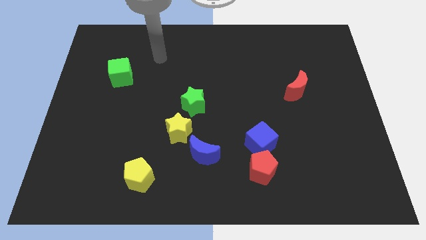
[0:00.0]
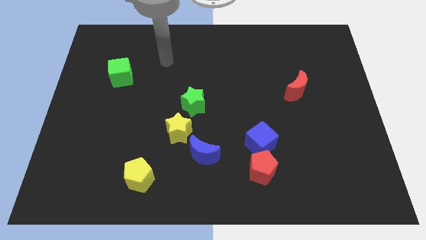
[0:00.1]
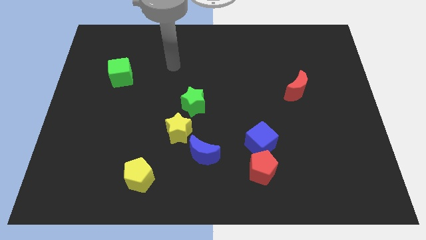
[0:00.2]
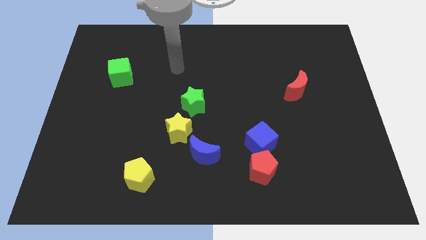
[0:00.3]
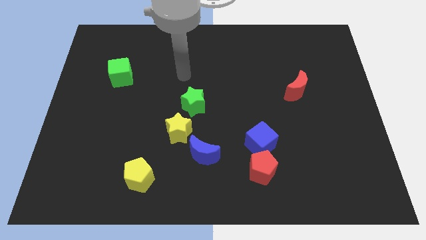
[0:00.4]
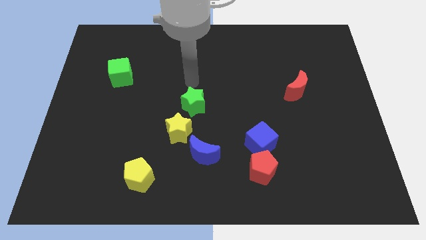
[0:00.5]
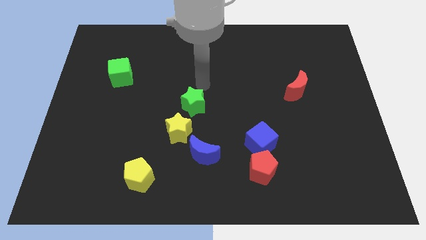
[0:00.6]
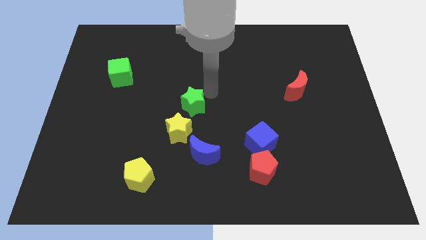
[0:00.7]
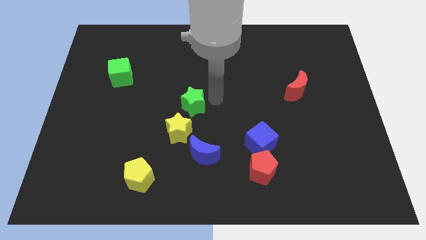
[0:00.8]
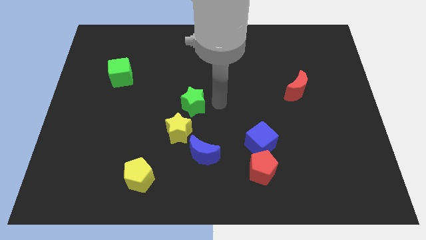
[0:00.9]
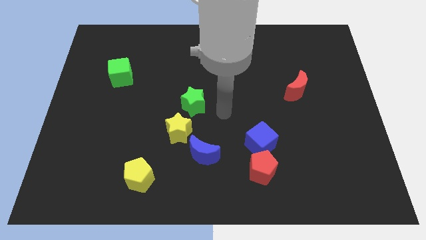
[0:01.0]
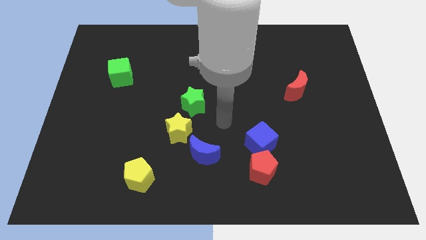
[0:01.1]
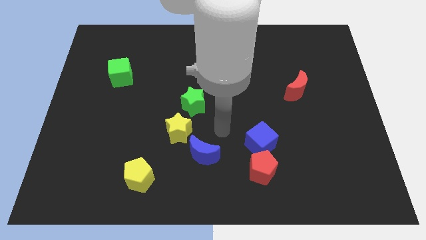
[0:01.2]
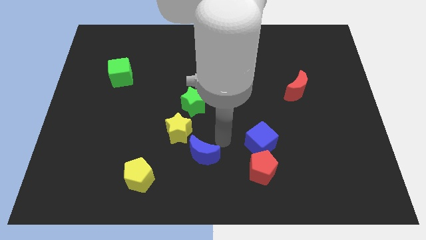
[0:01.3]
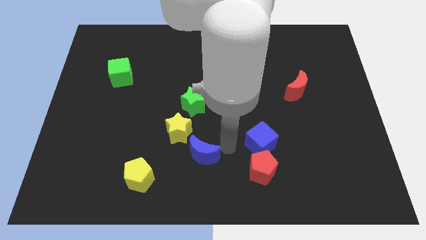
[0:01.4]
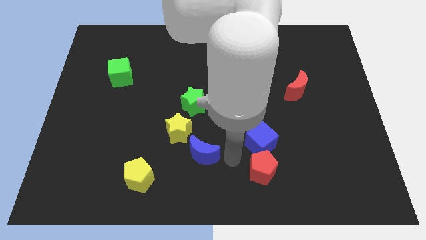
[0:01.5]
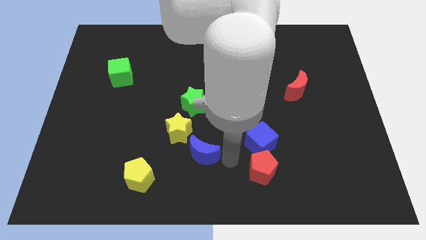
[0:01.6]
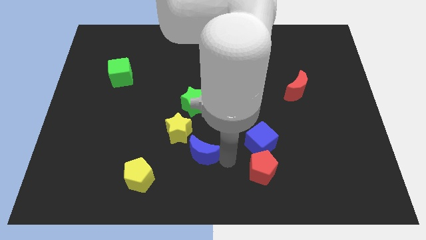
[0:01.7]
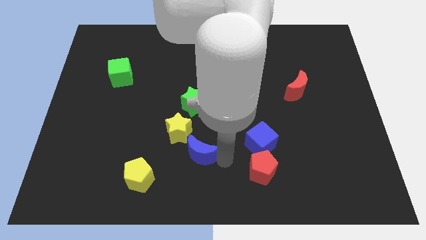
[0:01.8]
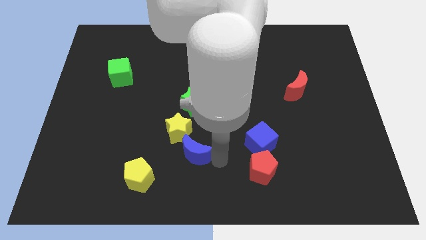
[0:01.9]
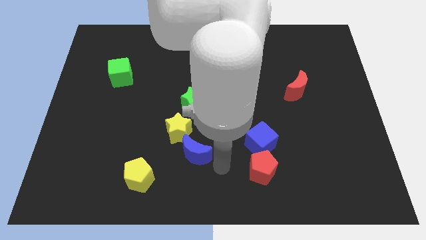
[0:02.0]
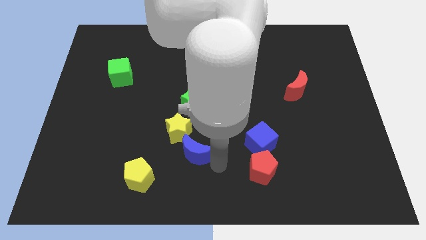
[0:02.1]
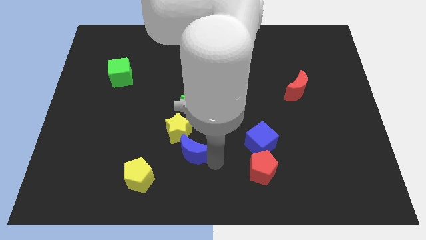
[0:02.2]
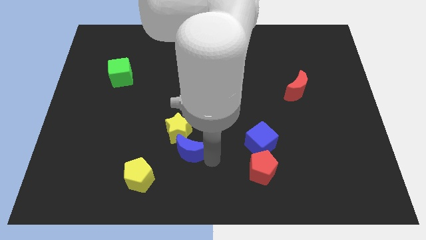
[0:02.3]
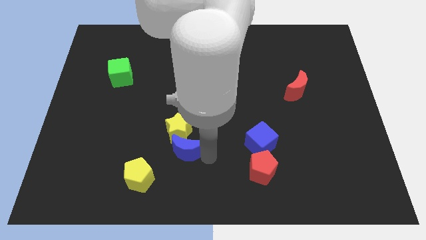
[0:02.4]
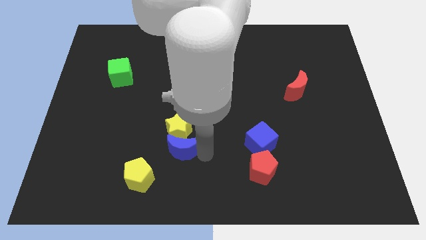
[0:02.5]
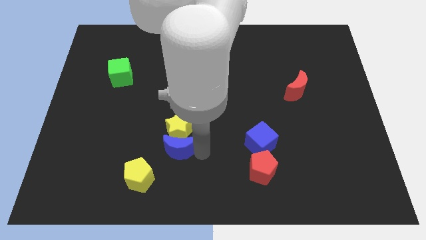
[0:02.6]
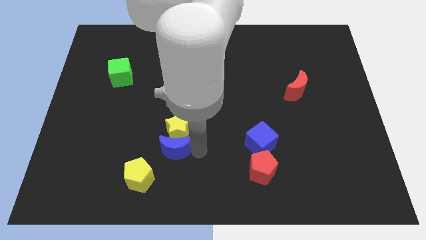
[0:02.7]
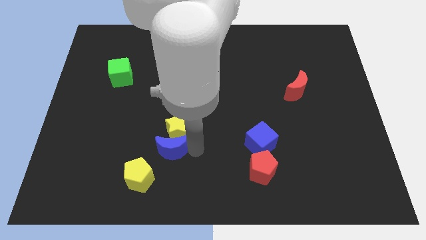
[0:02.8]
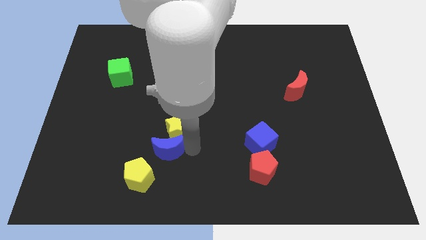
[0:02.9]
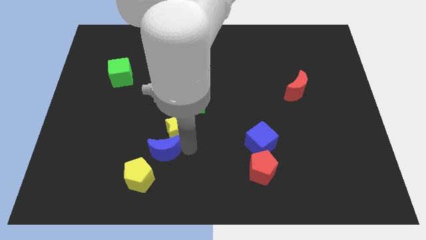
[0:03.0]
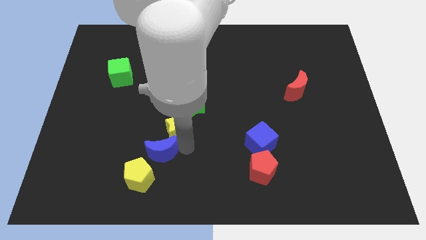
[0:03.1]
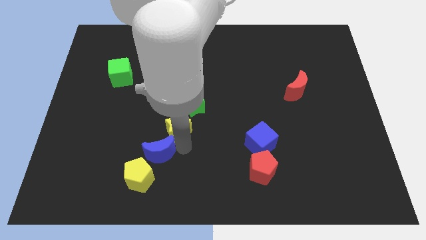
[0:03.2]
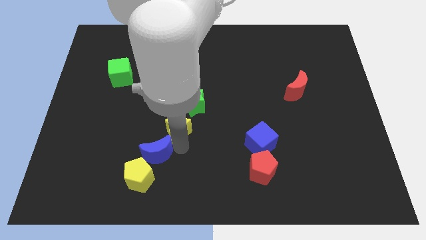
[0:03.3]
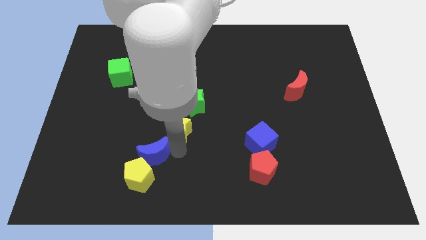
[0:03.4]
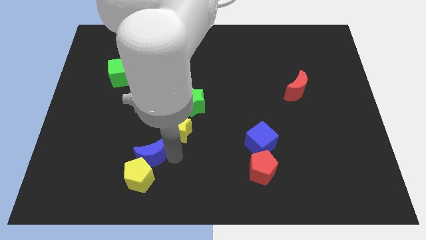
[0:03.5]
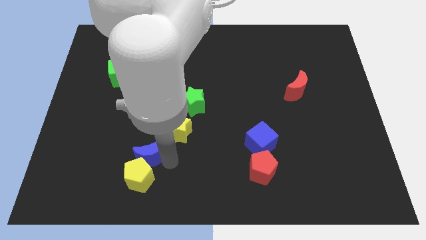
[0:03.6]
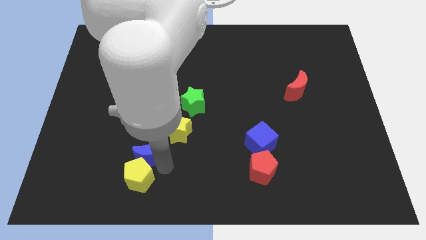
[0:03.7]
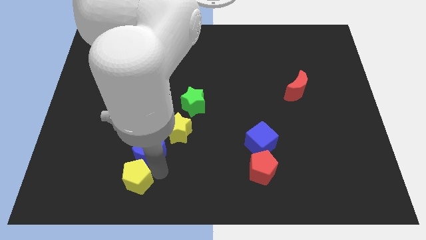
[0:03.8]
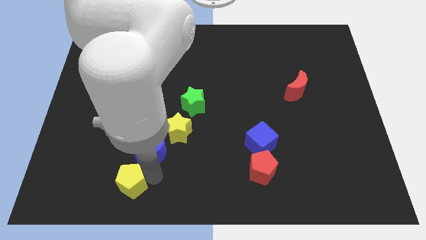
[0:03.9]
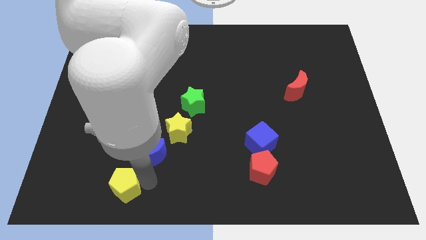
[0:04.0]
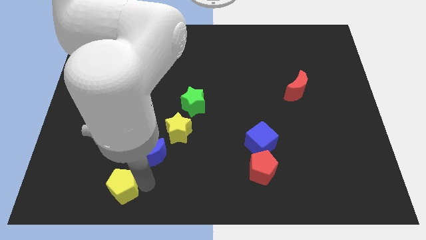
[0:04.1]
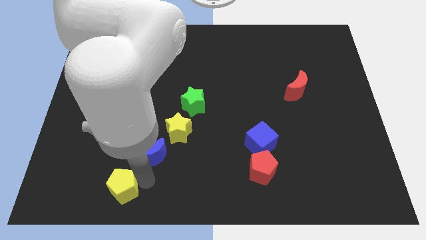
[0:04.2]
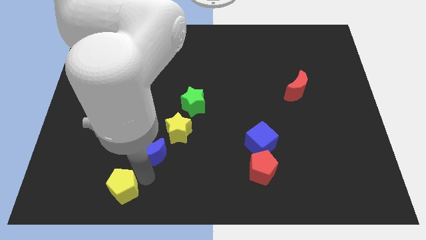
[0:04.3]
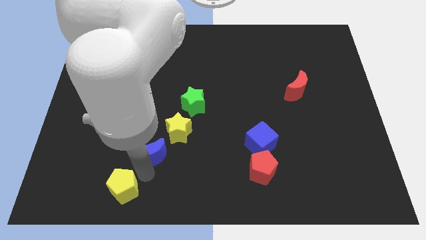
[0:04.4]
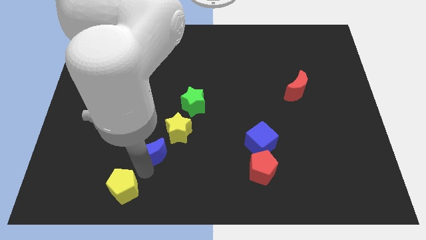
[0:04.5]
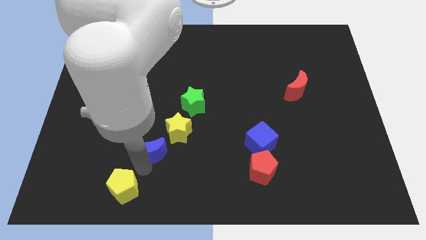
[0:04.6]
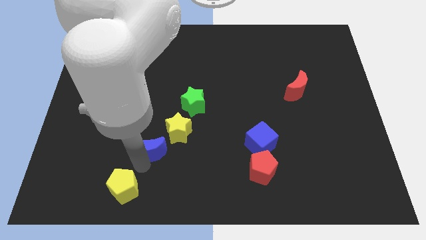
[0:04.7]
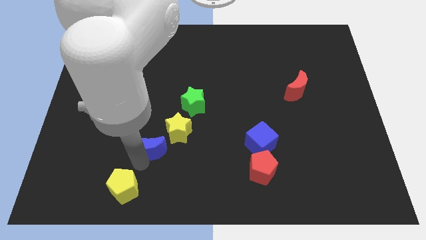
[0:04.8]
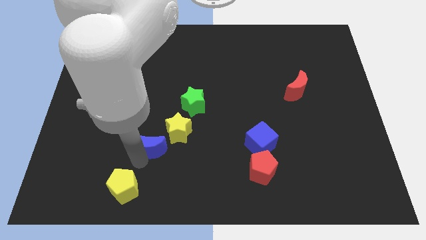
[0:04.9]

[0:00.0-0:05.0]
slightly push the blue moon diagonally up and left

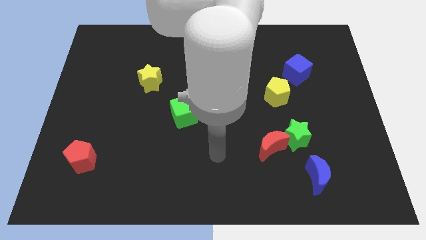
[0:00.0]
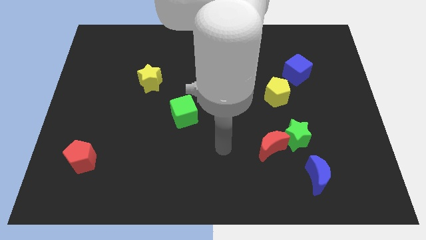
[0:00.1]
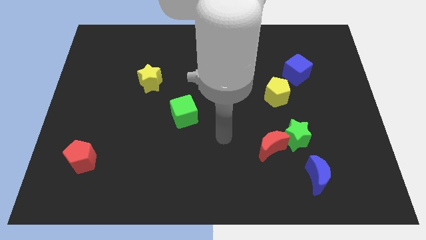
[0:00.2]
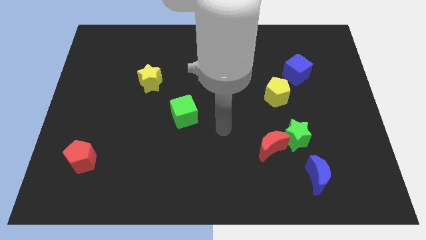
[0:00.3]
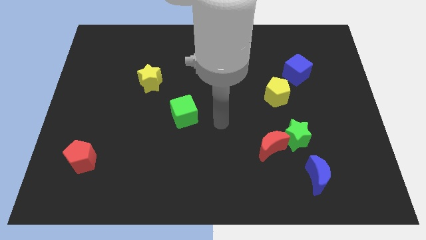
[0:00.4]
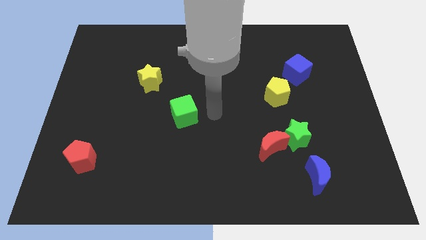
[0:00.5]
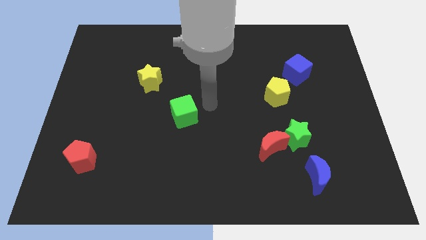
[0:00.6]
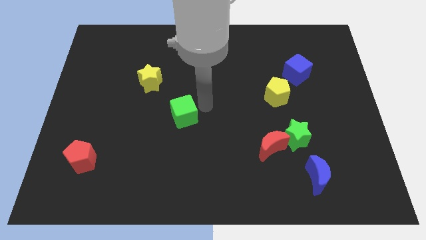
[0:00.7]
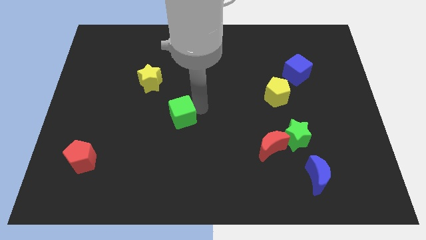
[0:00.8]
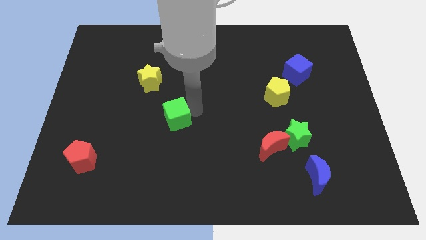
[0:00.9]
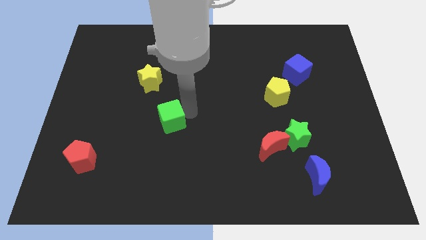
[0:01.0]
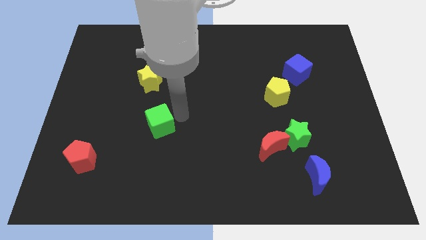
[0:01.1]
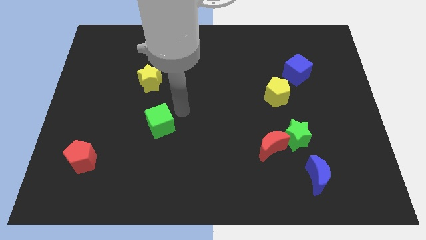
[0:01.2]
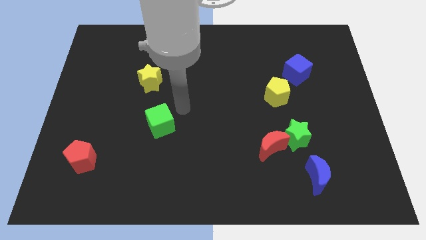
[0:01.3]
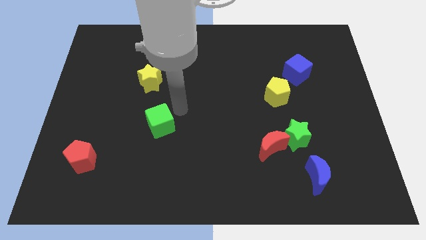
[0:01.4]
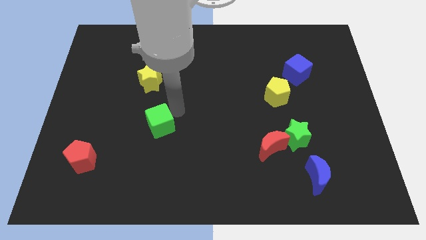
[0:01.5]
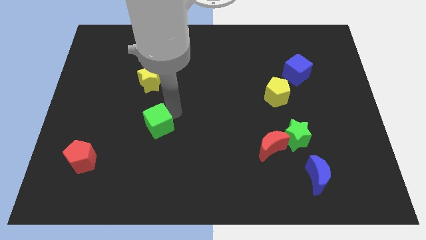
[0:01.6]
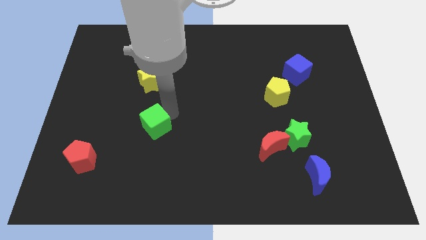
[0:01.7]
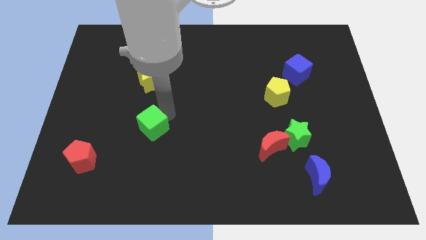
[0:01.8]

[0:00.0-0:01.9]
slide the green cube somewhat diagonally downwards and left

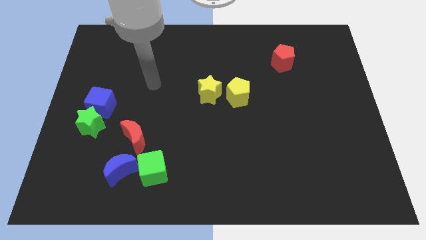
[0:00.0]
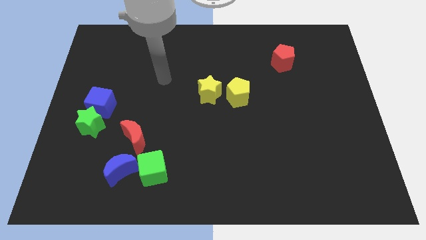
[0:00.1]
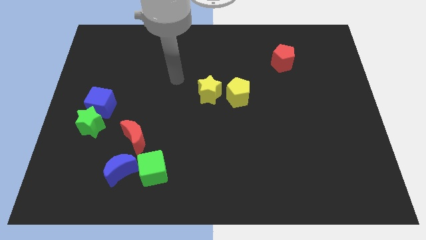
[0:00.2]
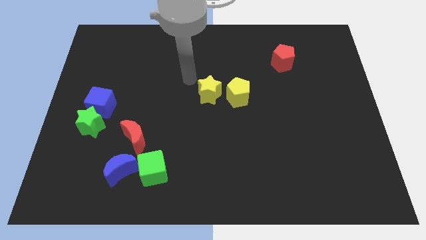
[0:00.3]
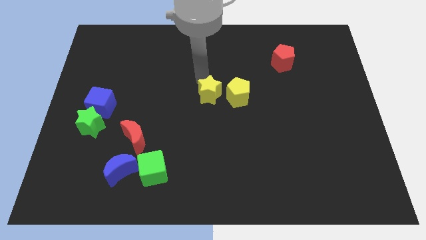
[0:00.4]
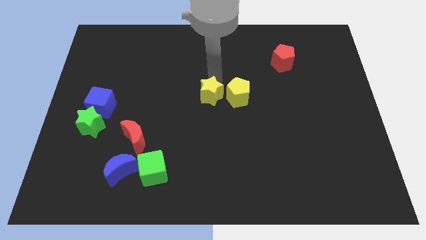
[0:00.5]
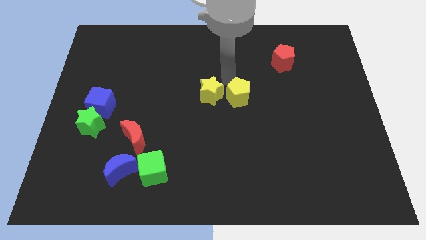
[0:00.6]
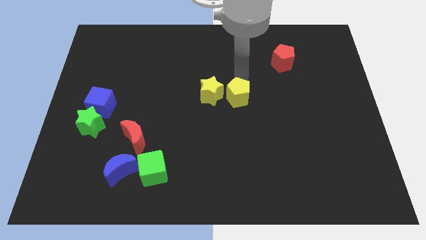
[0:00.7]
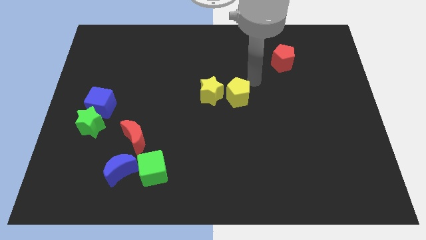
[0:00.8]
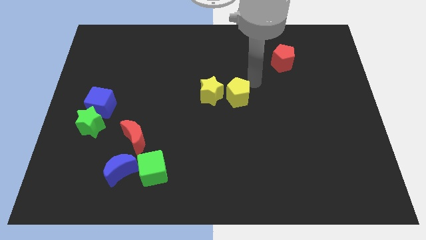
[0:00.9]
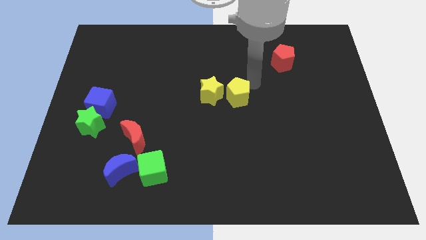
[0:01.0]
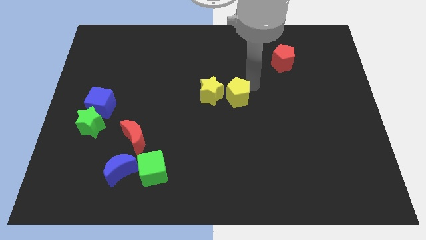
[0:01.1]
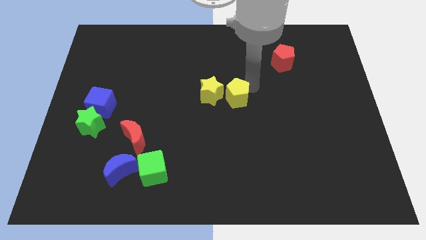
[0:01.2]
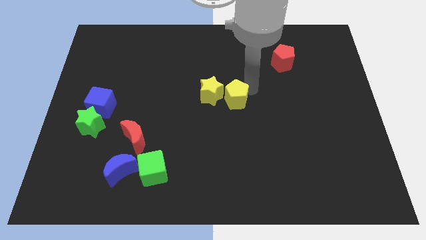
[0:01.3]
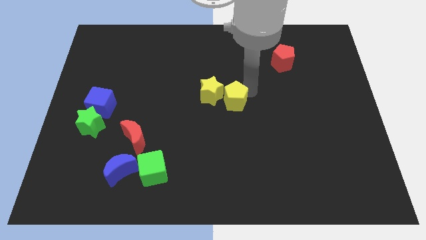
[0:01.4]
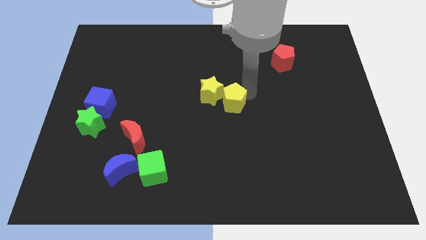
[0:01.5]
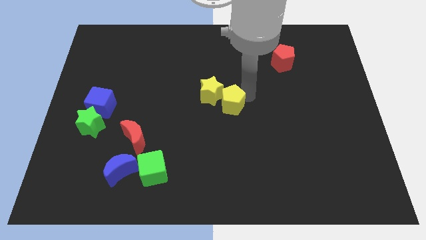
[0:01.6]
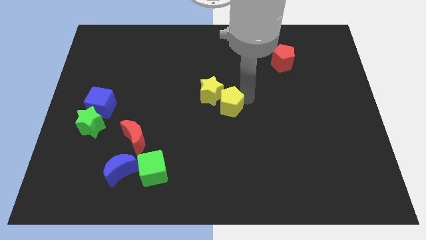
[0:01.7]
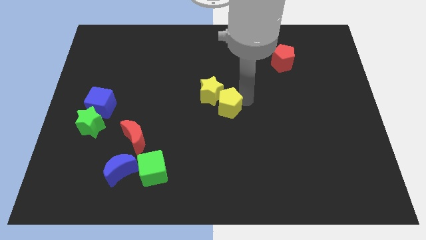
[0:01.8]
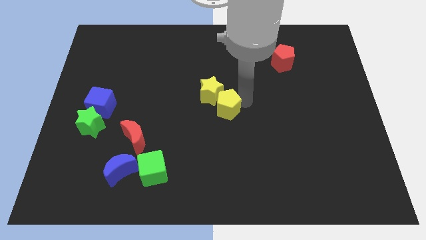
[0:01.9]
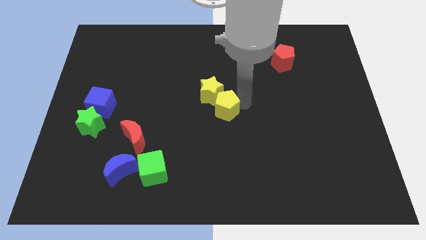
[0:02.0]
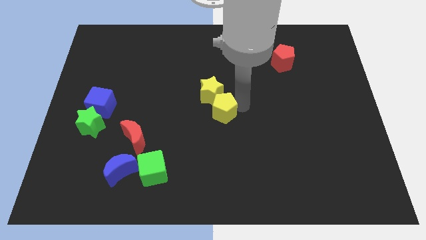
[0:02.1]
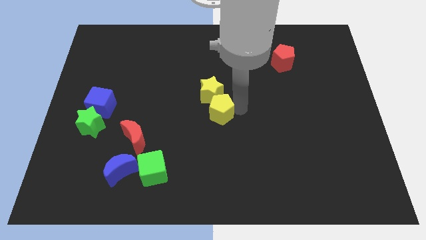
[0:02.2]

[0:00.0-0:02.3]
move the yellow pentagon down and left a little bit
